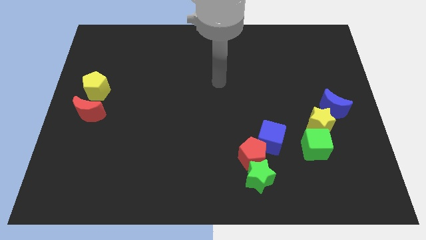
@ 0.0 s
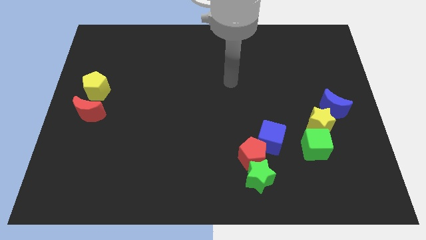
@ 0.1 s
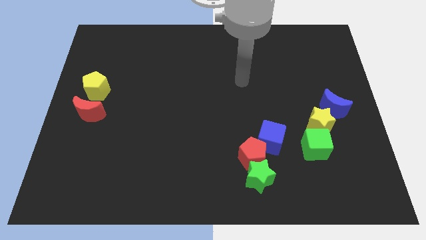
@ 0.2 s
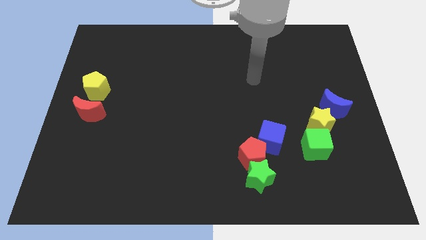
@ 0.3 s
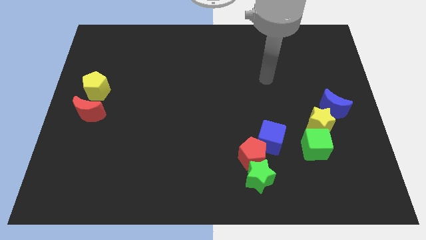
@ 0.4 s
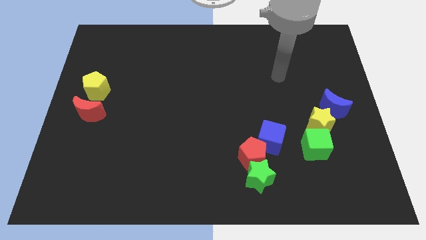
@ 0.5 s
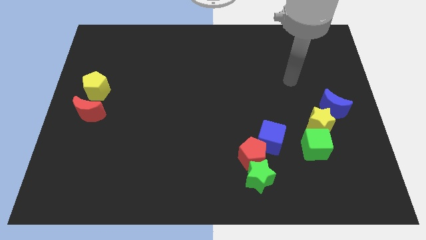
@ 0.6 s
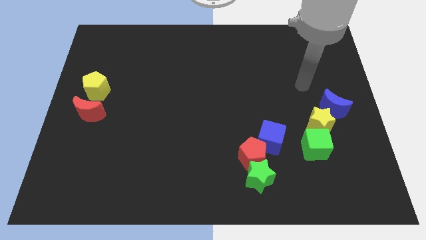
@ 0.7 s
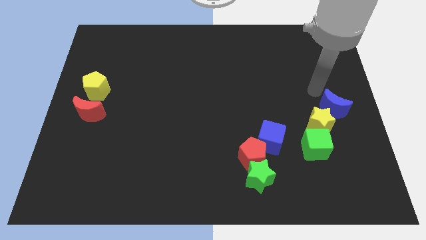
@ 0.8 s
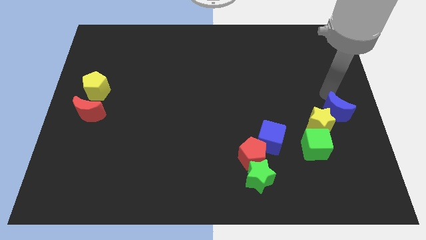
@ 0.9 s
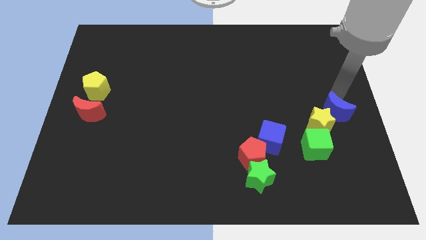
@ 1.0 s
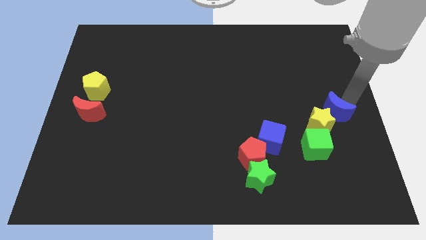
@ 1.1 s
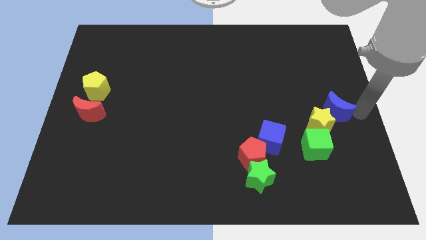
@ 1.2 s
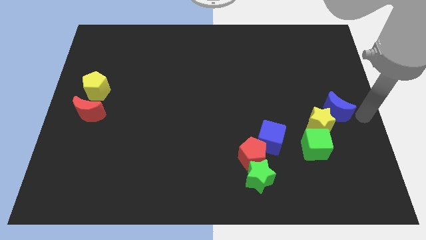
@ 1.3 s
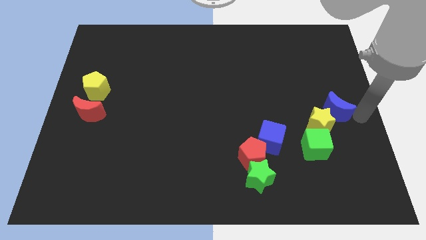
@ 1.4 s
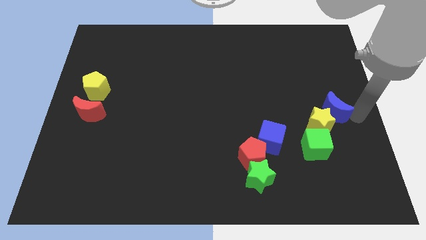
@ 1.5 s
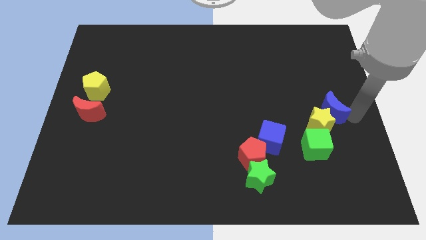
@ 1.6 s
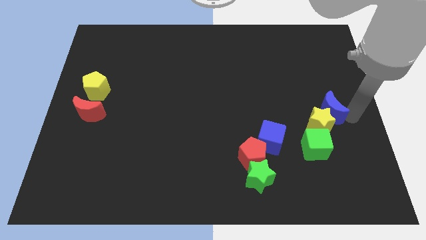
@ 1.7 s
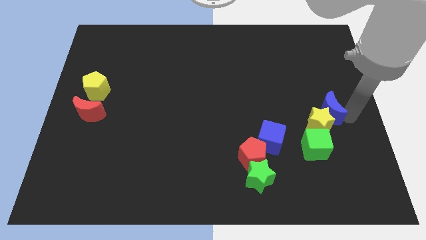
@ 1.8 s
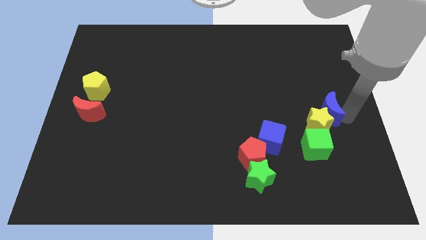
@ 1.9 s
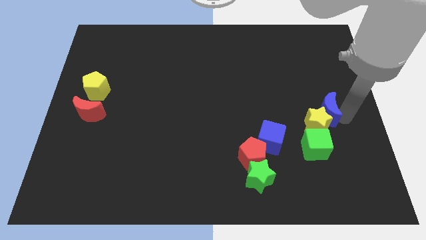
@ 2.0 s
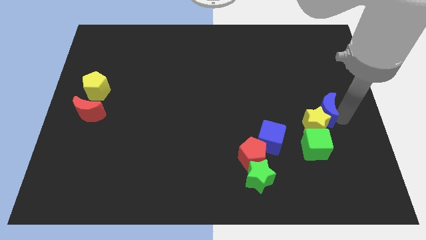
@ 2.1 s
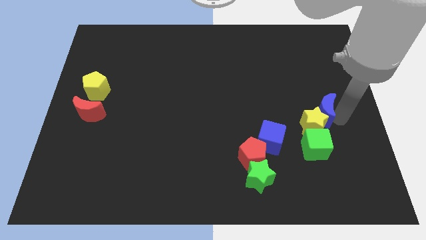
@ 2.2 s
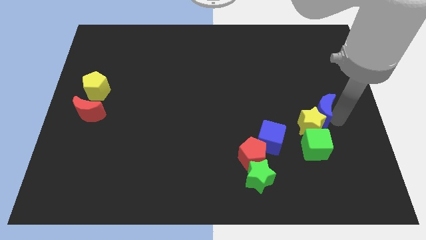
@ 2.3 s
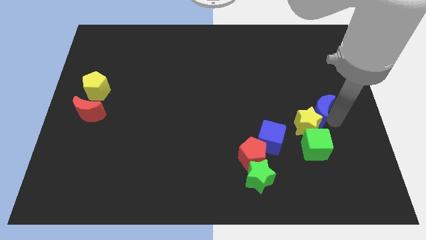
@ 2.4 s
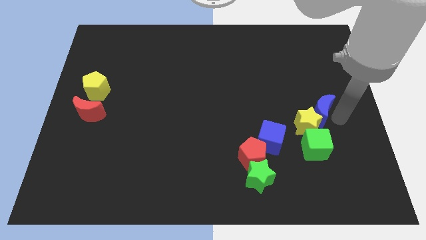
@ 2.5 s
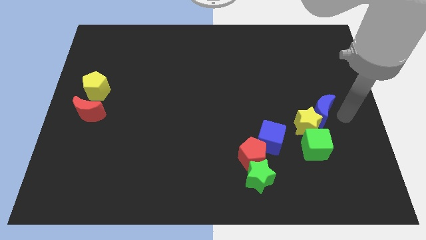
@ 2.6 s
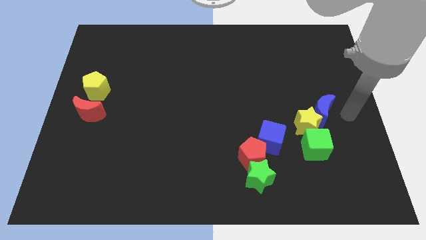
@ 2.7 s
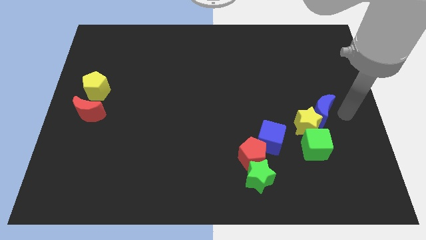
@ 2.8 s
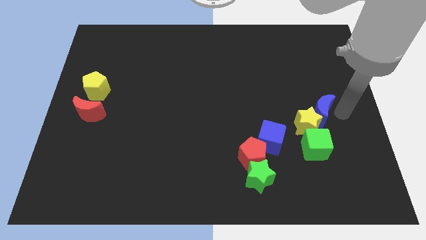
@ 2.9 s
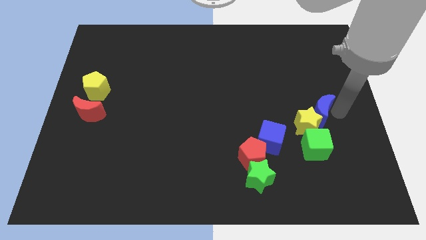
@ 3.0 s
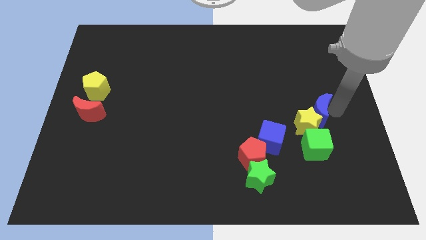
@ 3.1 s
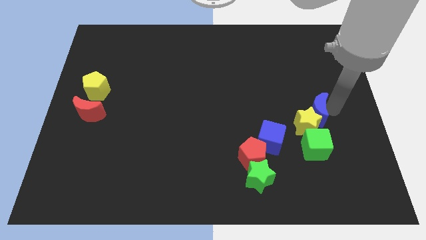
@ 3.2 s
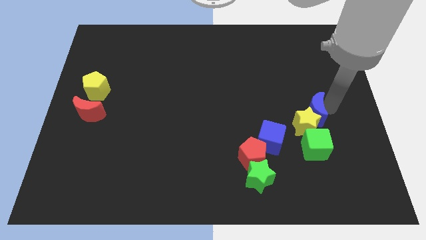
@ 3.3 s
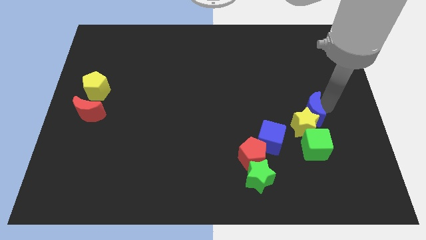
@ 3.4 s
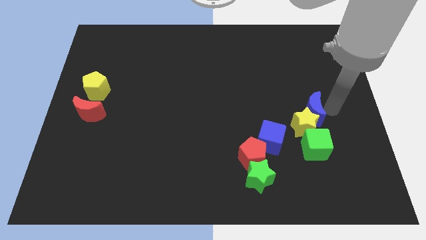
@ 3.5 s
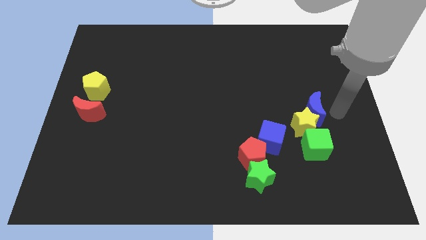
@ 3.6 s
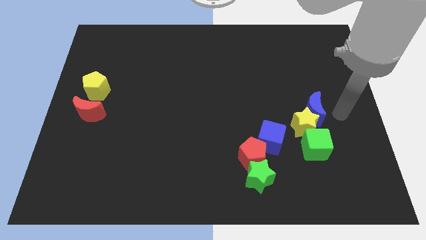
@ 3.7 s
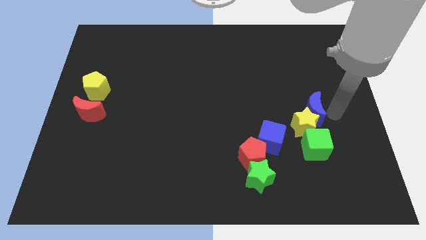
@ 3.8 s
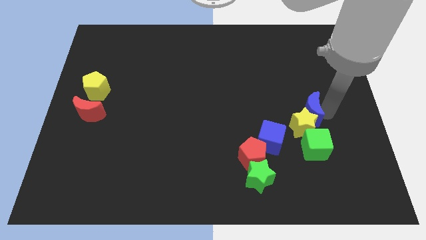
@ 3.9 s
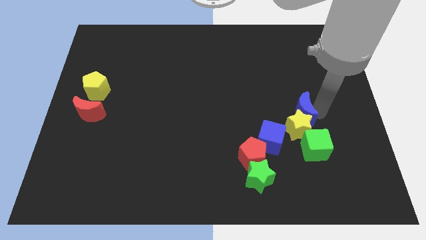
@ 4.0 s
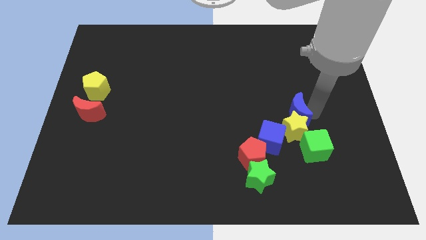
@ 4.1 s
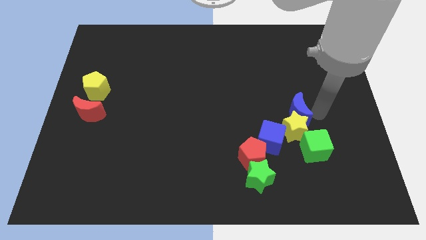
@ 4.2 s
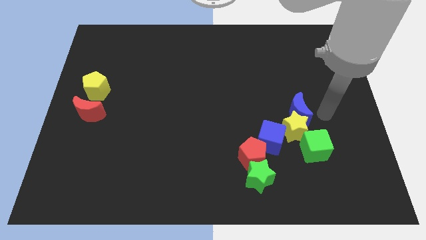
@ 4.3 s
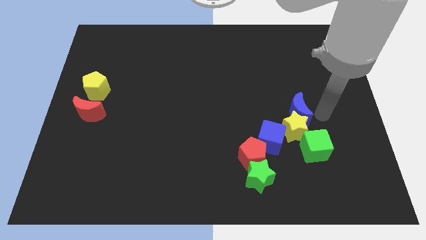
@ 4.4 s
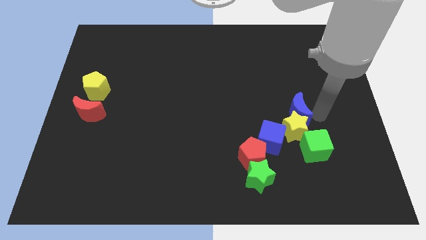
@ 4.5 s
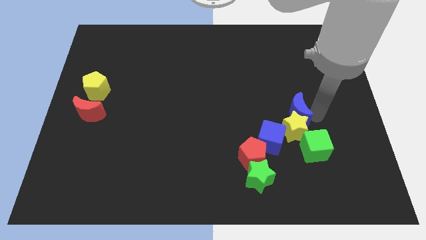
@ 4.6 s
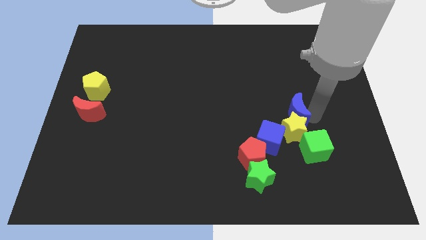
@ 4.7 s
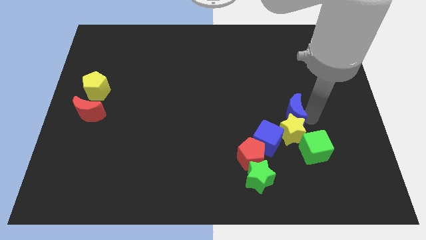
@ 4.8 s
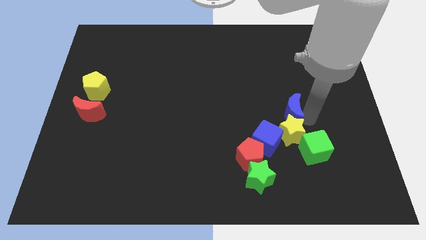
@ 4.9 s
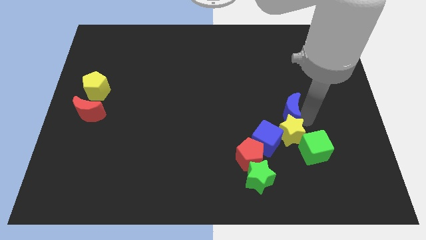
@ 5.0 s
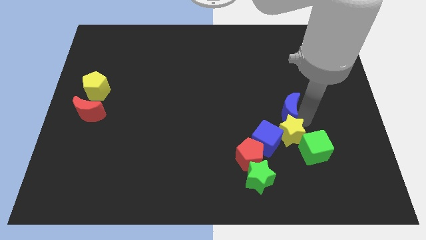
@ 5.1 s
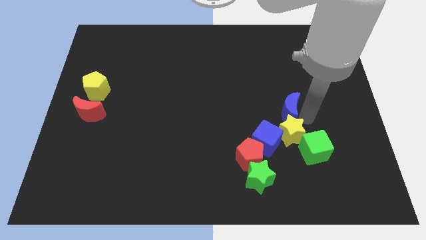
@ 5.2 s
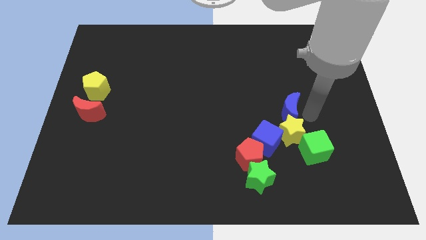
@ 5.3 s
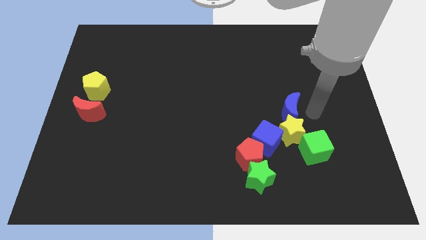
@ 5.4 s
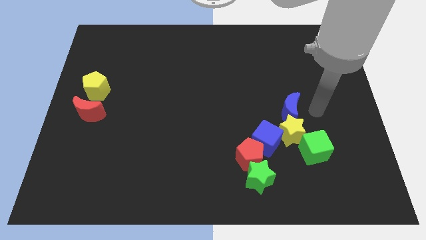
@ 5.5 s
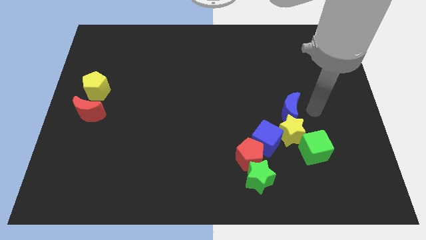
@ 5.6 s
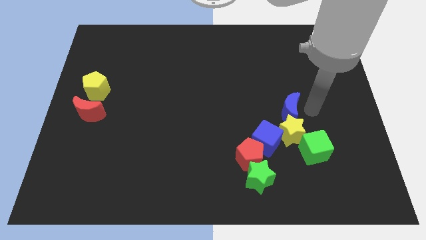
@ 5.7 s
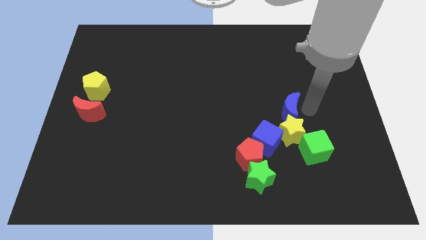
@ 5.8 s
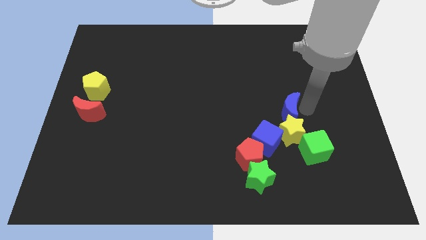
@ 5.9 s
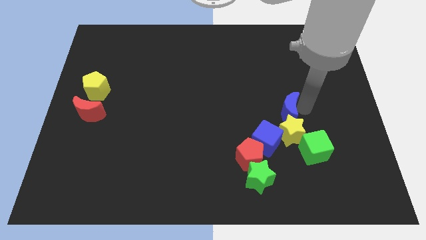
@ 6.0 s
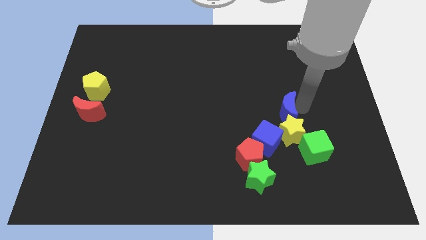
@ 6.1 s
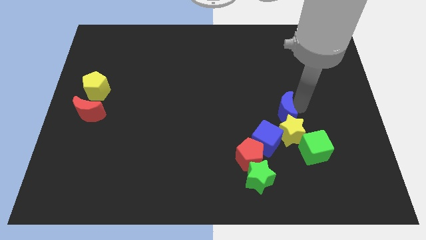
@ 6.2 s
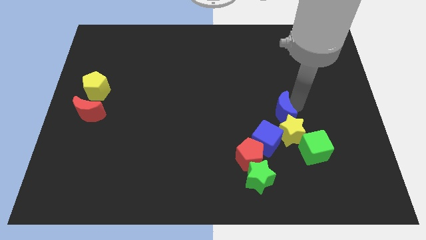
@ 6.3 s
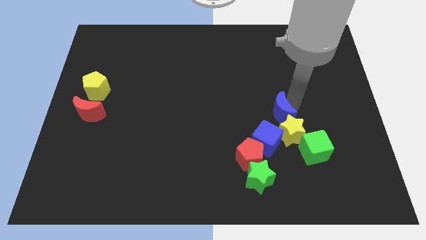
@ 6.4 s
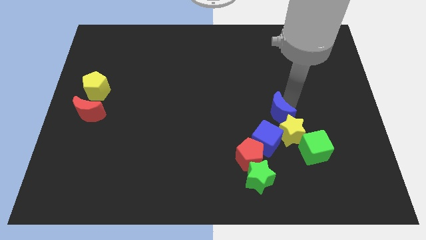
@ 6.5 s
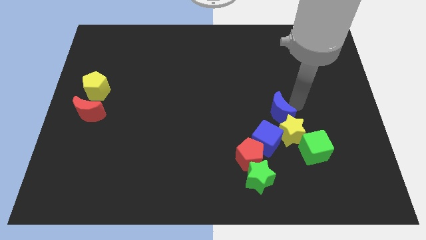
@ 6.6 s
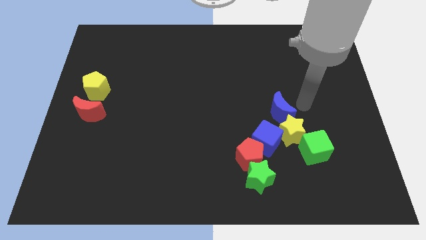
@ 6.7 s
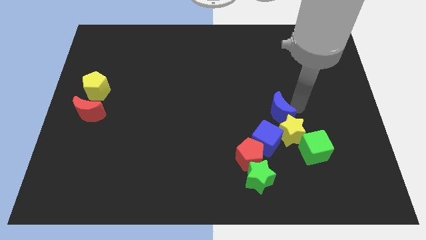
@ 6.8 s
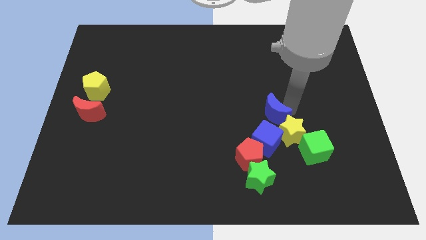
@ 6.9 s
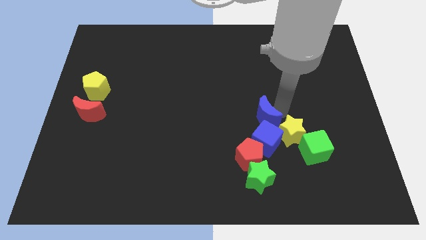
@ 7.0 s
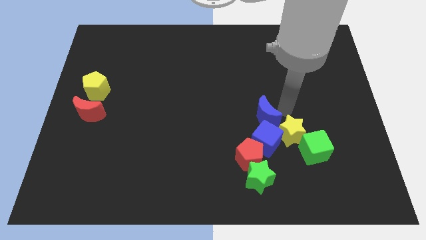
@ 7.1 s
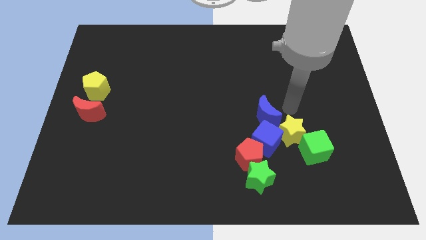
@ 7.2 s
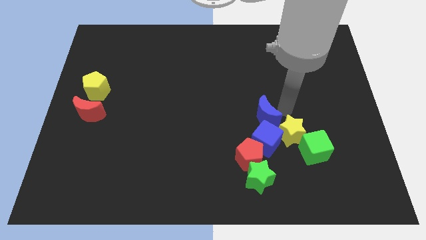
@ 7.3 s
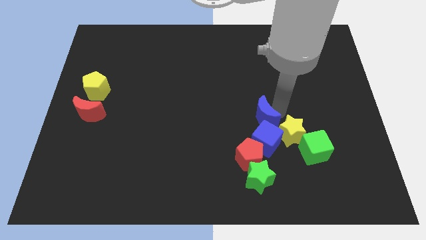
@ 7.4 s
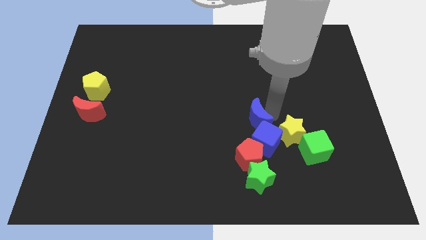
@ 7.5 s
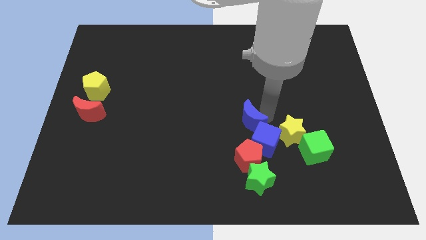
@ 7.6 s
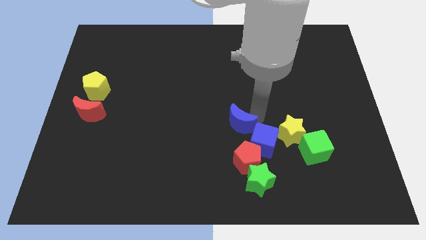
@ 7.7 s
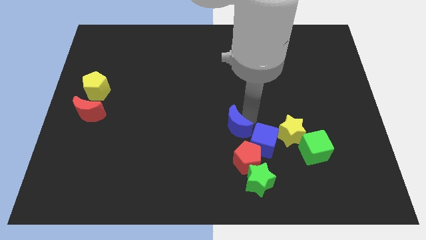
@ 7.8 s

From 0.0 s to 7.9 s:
push the blue moon to the left side of the blue cube
